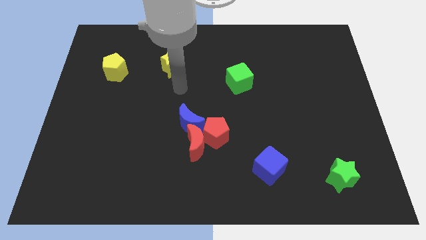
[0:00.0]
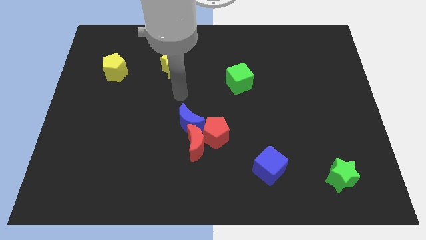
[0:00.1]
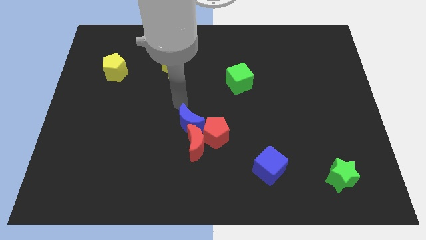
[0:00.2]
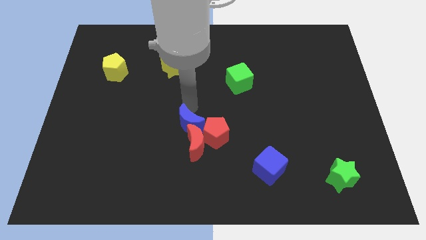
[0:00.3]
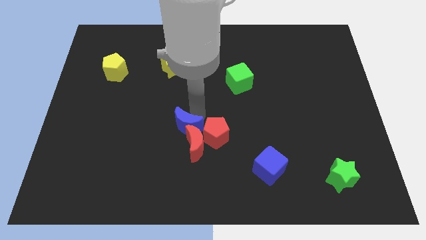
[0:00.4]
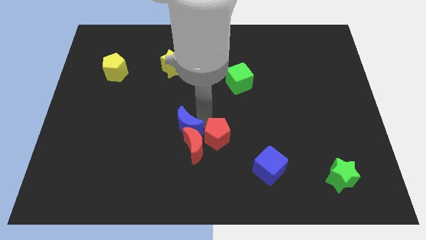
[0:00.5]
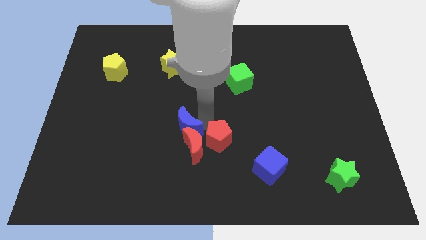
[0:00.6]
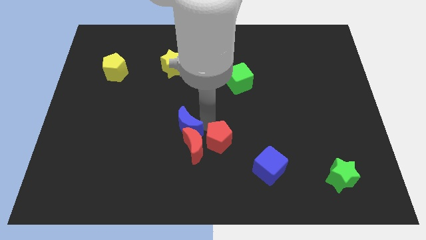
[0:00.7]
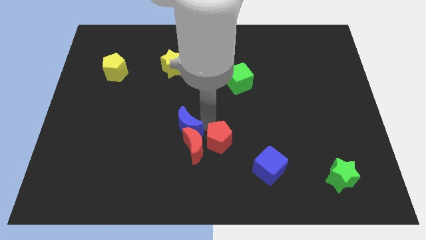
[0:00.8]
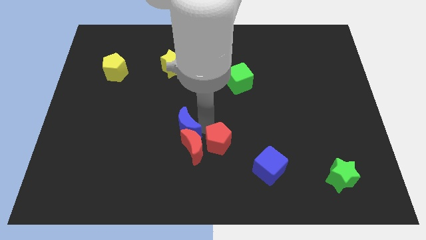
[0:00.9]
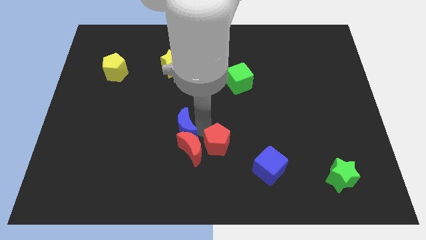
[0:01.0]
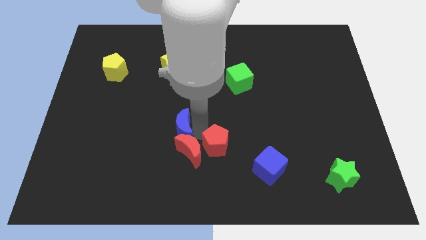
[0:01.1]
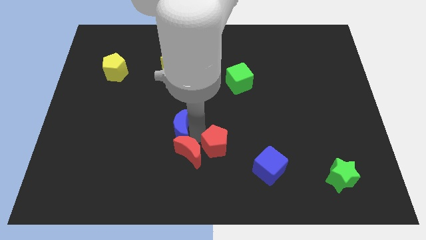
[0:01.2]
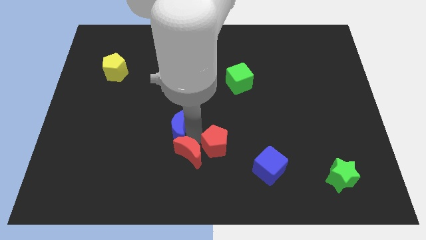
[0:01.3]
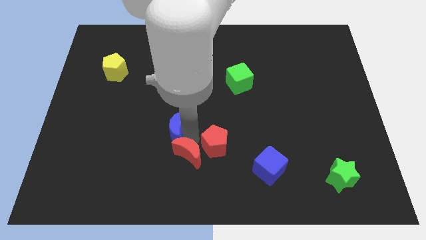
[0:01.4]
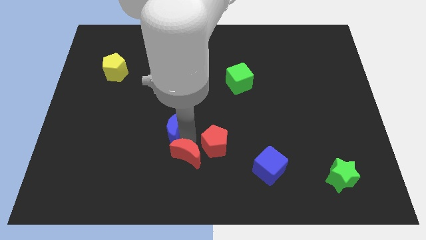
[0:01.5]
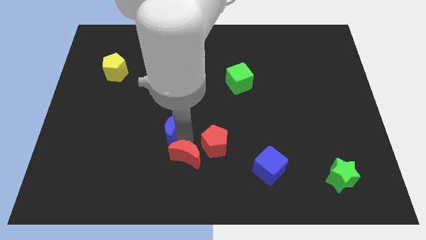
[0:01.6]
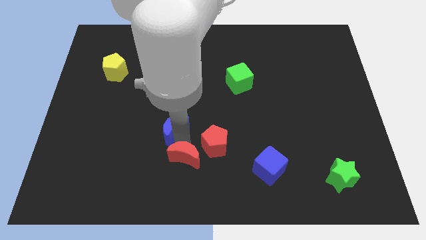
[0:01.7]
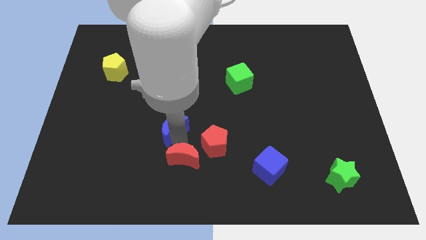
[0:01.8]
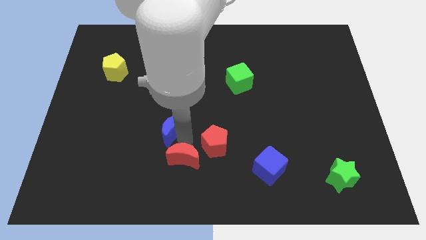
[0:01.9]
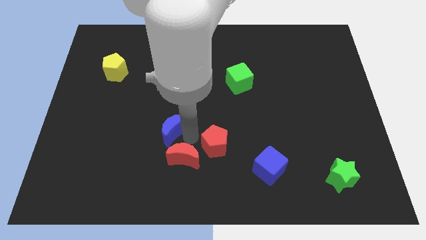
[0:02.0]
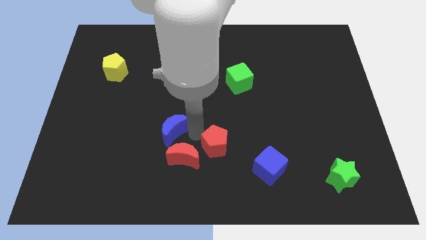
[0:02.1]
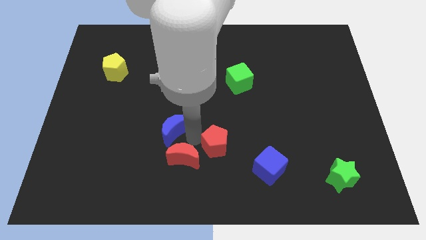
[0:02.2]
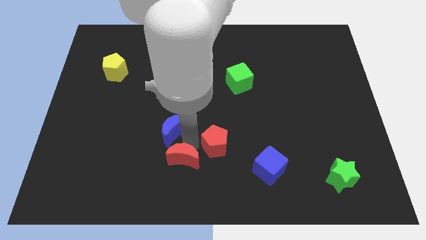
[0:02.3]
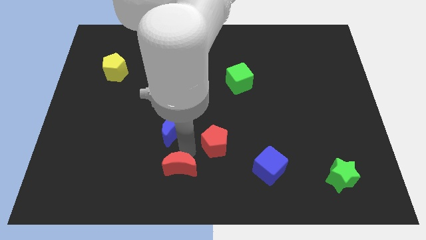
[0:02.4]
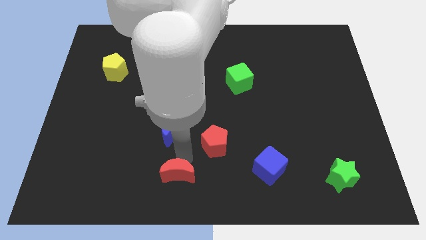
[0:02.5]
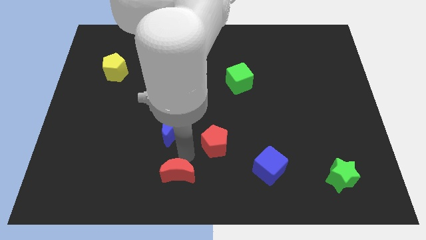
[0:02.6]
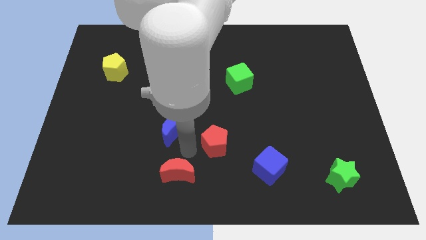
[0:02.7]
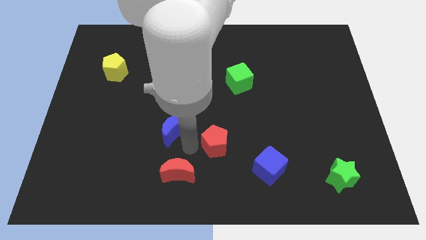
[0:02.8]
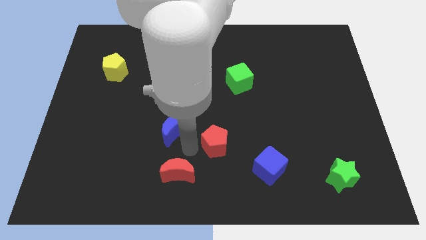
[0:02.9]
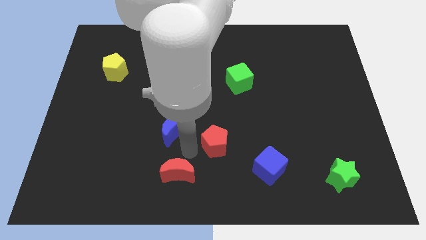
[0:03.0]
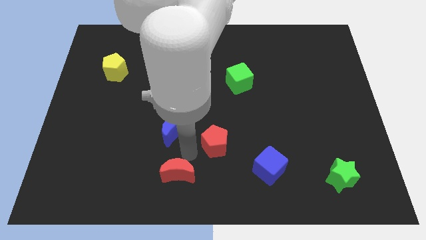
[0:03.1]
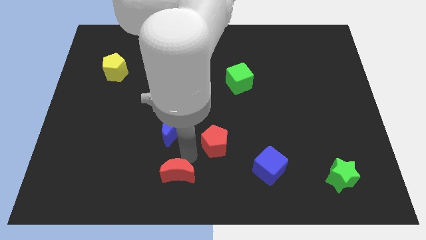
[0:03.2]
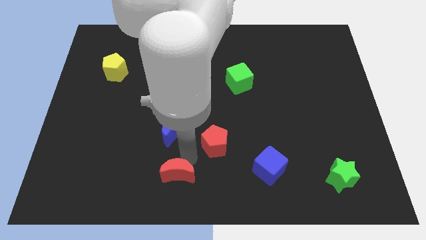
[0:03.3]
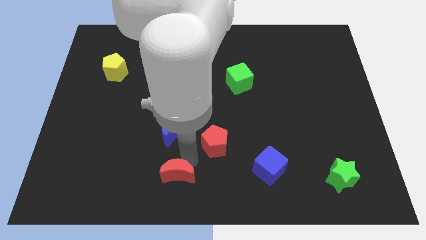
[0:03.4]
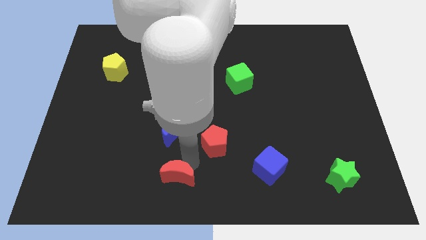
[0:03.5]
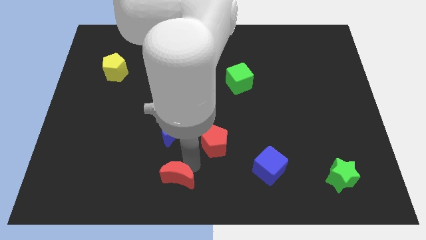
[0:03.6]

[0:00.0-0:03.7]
pull the red moon apart from the red pentagon and blue moon

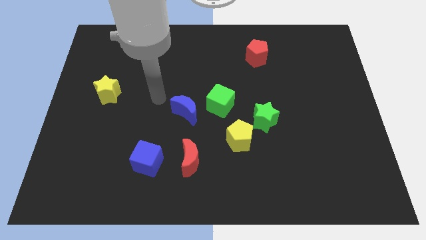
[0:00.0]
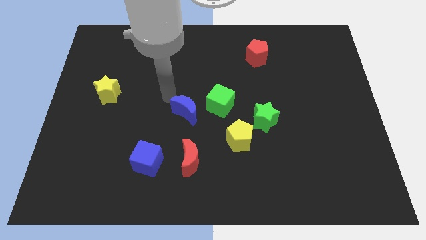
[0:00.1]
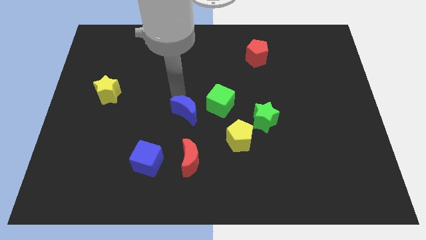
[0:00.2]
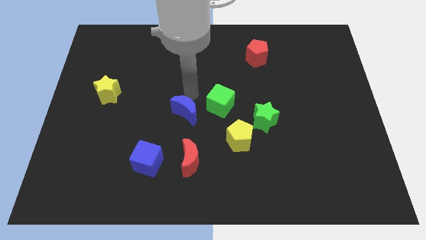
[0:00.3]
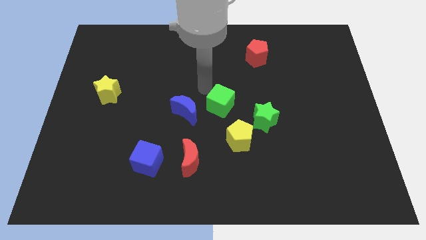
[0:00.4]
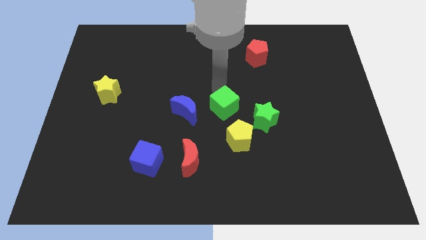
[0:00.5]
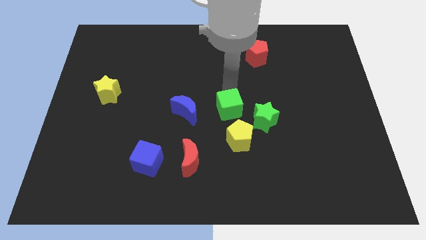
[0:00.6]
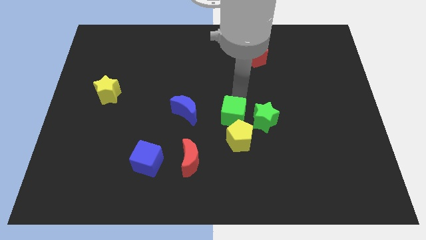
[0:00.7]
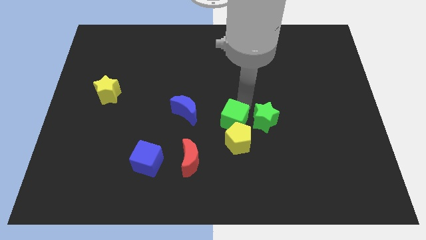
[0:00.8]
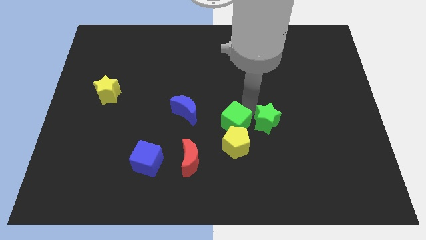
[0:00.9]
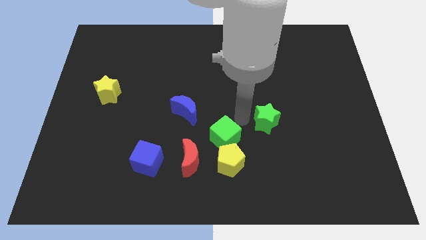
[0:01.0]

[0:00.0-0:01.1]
move the green star away from the yellow pentagon

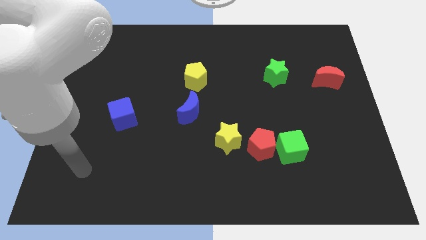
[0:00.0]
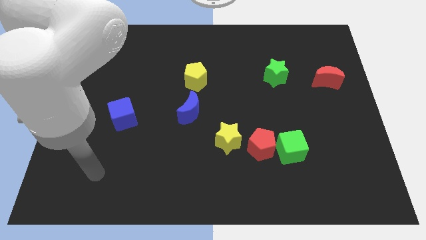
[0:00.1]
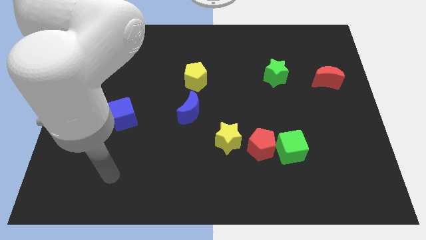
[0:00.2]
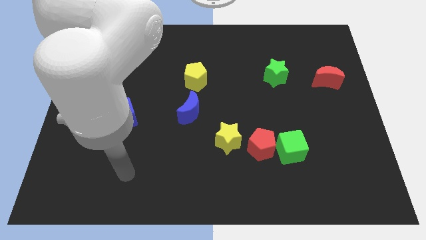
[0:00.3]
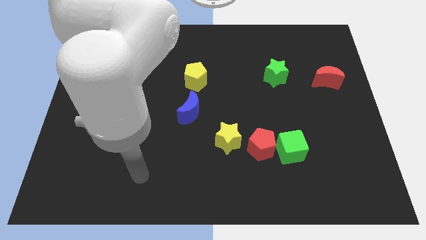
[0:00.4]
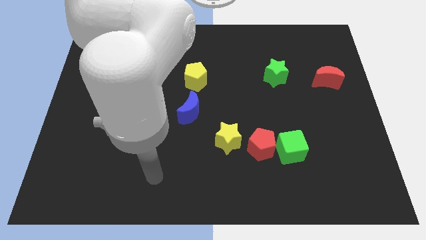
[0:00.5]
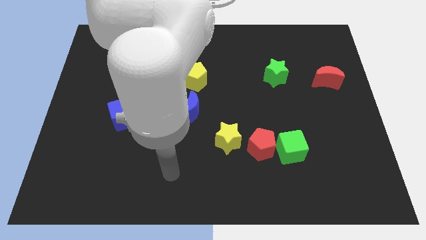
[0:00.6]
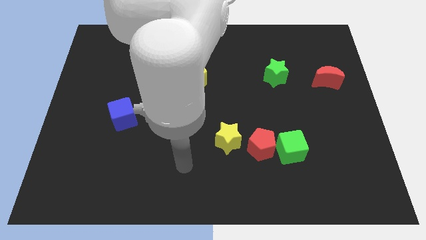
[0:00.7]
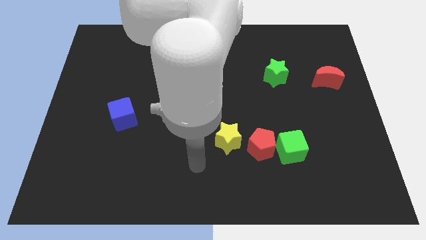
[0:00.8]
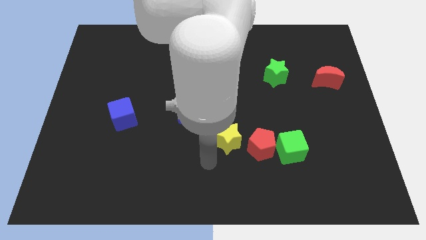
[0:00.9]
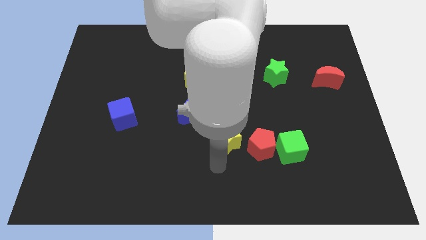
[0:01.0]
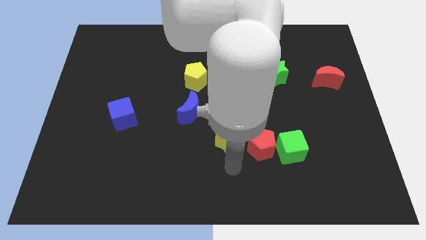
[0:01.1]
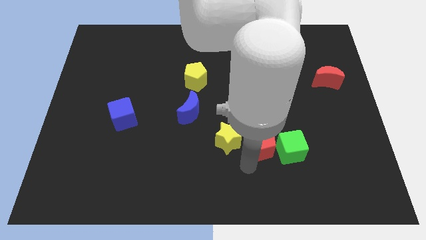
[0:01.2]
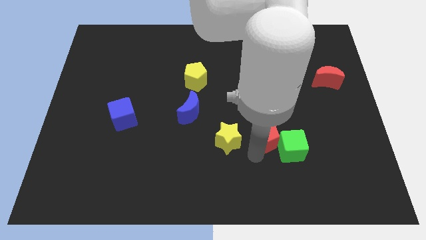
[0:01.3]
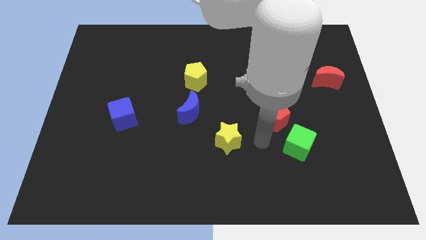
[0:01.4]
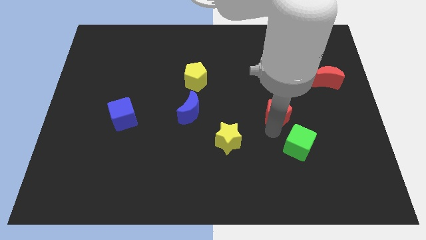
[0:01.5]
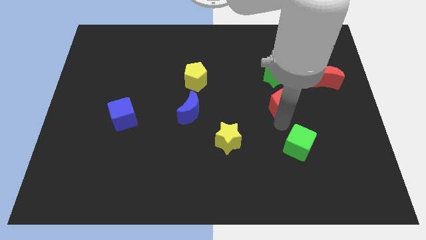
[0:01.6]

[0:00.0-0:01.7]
separate the green cube from the red pentagon

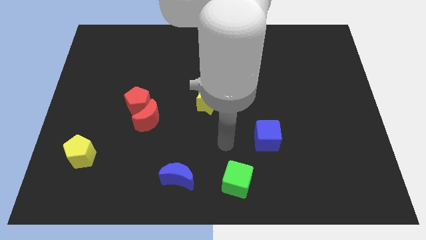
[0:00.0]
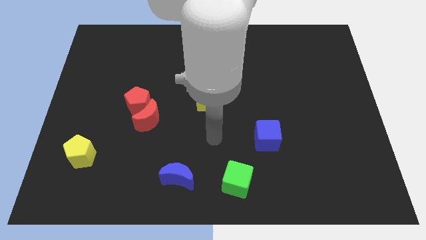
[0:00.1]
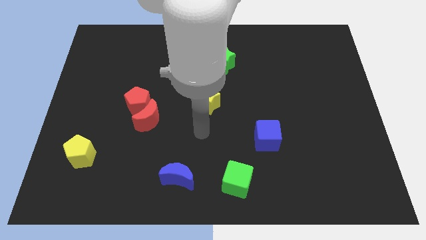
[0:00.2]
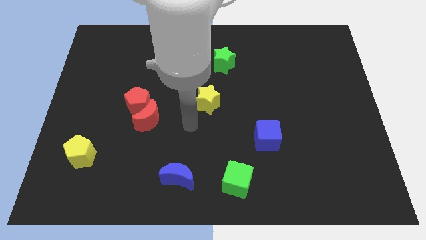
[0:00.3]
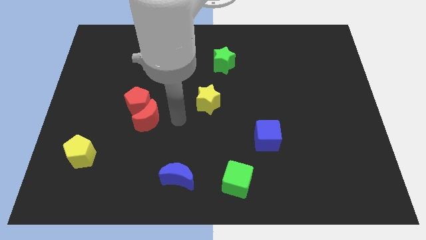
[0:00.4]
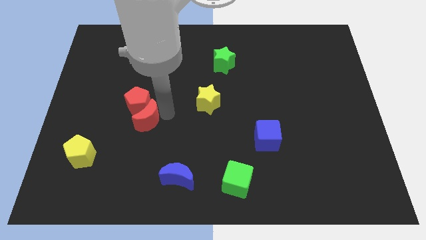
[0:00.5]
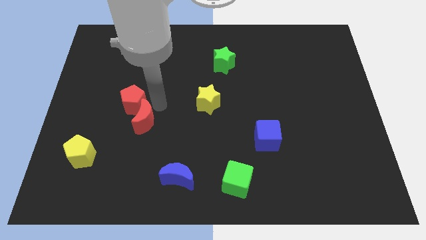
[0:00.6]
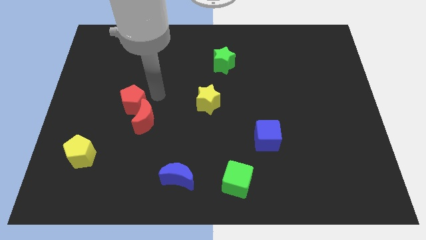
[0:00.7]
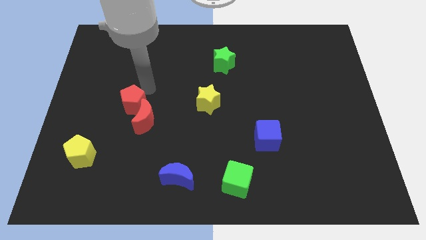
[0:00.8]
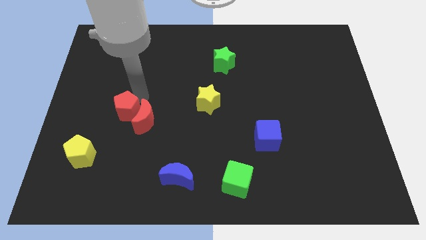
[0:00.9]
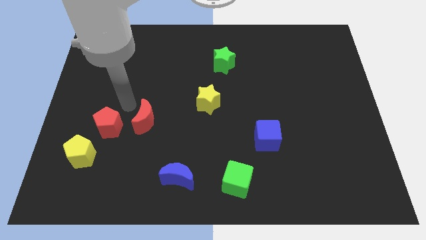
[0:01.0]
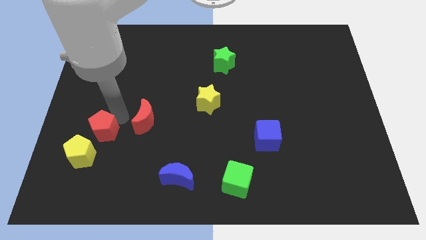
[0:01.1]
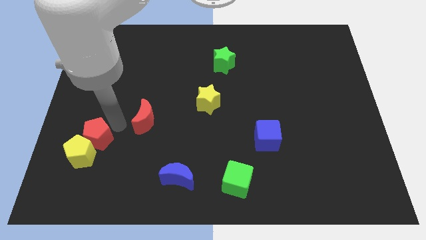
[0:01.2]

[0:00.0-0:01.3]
pull the red moon apart from the red pentagon

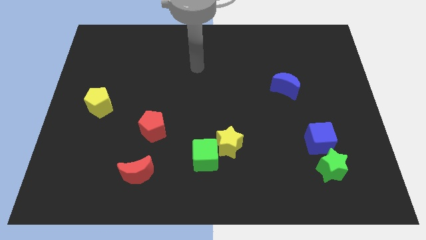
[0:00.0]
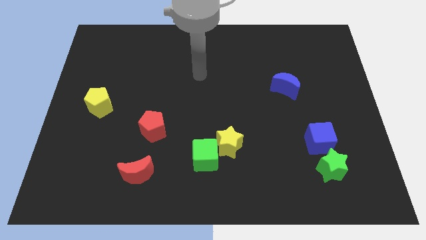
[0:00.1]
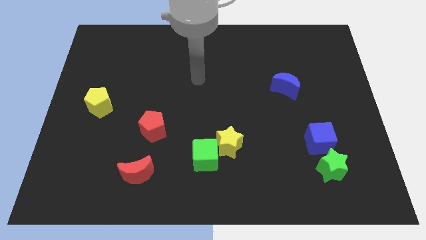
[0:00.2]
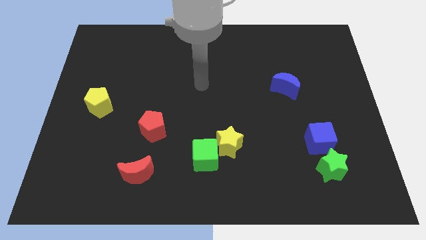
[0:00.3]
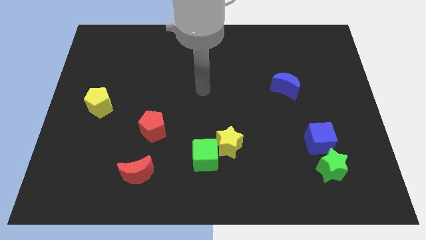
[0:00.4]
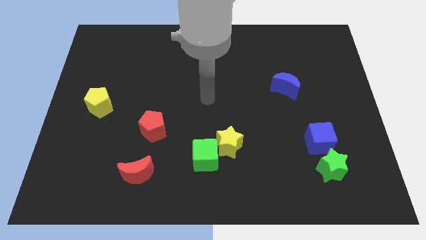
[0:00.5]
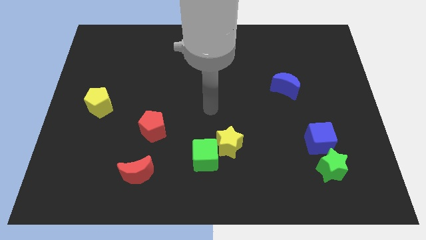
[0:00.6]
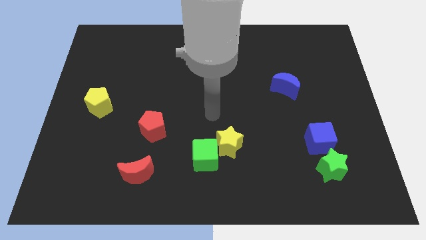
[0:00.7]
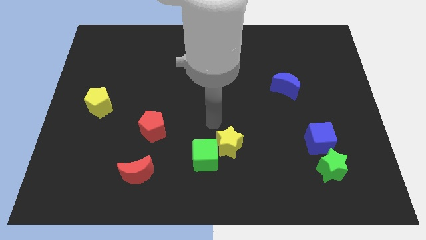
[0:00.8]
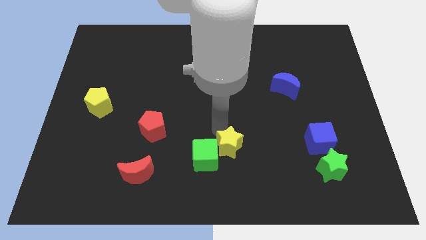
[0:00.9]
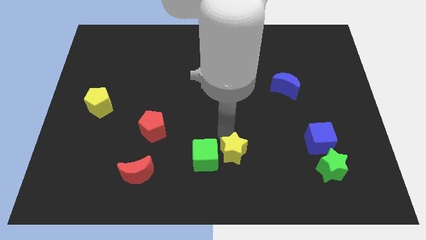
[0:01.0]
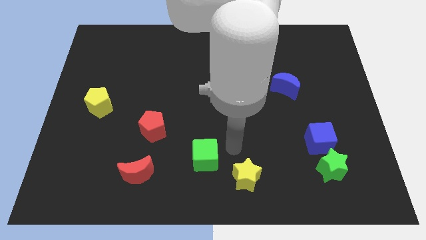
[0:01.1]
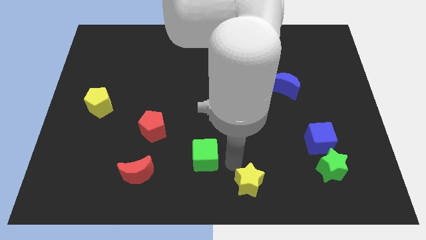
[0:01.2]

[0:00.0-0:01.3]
separate the green cube from the yellow star

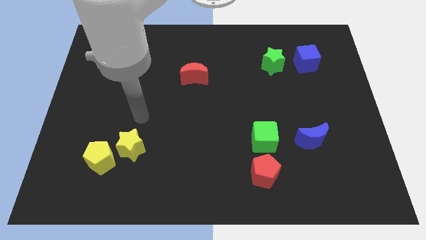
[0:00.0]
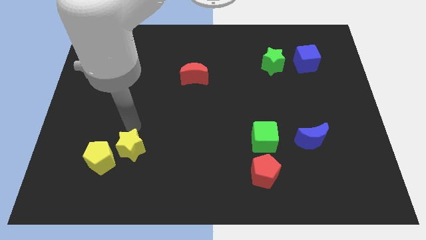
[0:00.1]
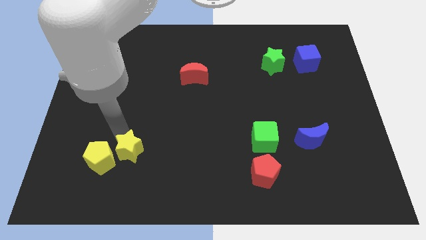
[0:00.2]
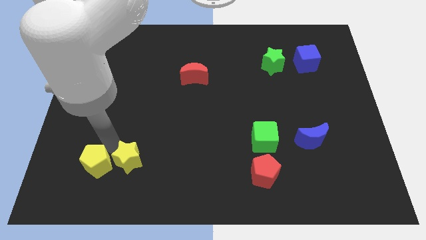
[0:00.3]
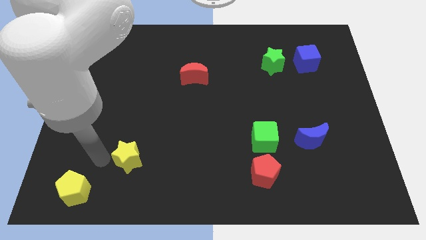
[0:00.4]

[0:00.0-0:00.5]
separate the yellow star from the yellow pentagon
